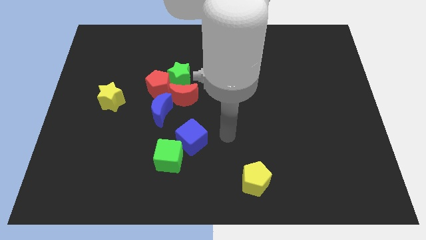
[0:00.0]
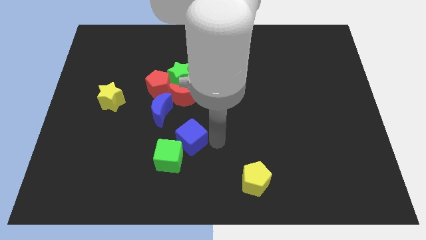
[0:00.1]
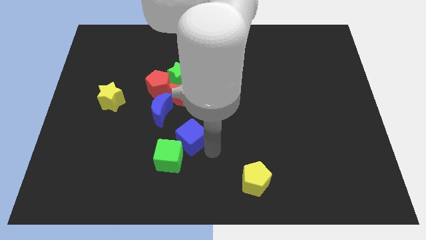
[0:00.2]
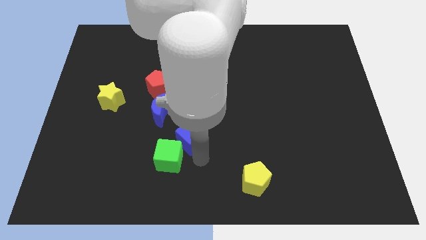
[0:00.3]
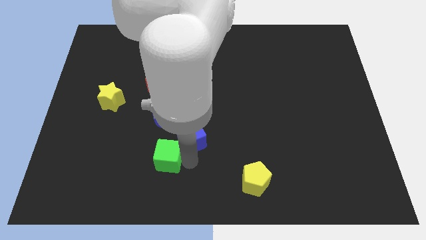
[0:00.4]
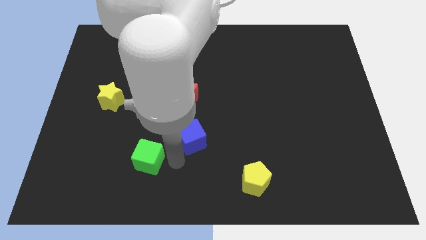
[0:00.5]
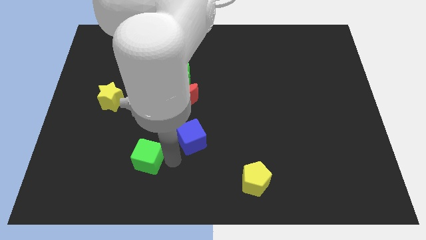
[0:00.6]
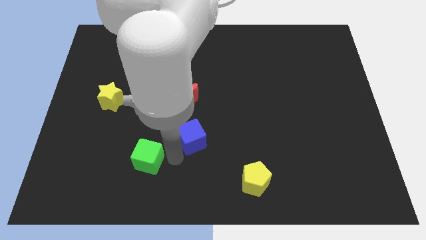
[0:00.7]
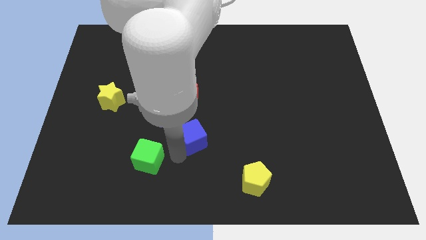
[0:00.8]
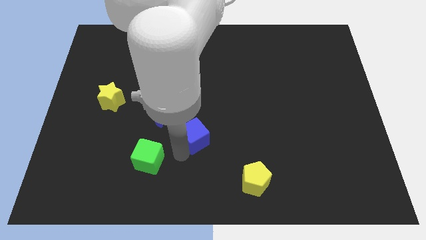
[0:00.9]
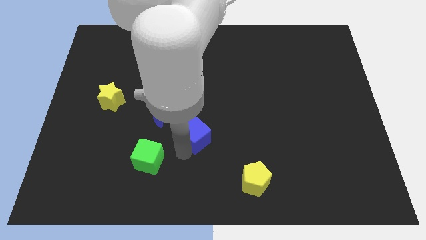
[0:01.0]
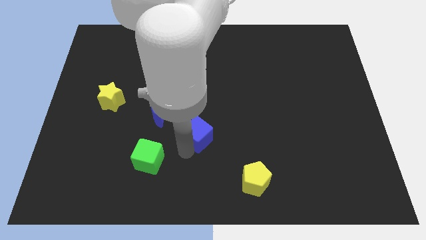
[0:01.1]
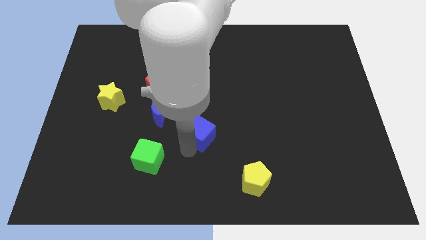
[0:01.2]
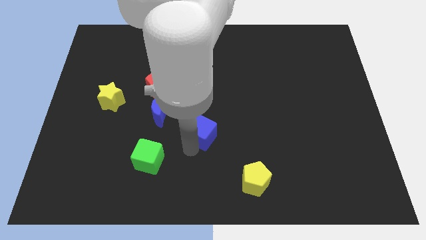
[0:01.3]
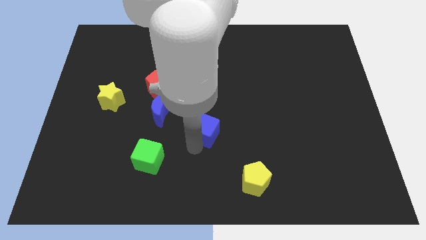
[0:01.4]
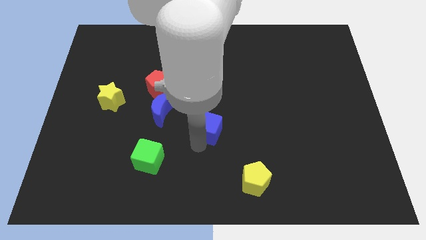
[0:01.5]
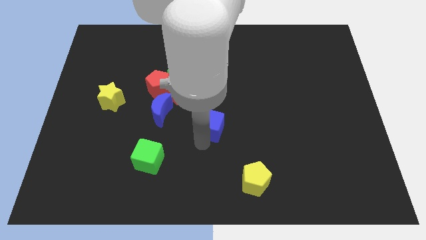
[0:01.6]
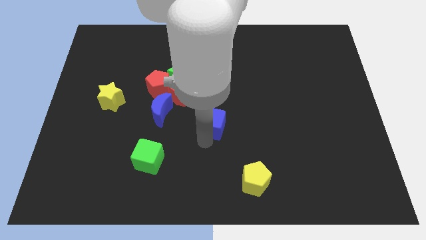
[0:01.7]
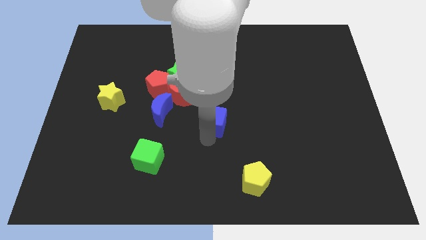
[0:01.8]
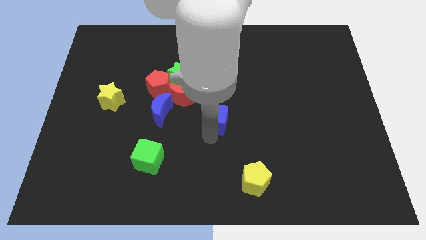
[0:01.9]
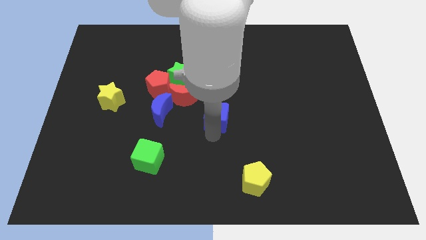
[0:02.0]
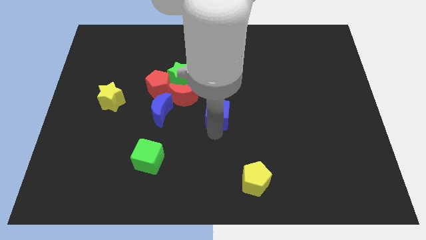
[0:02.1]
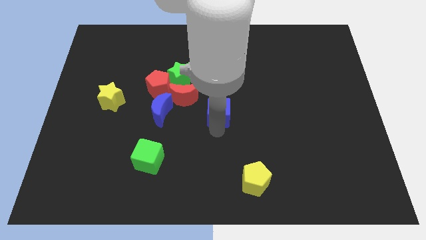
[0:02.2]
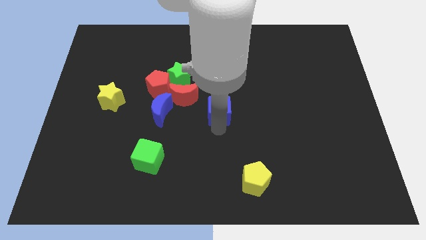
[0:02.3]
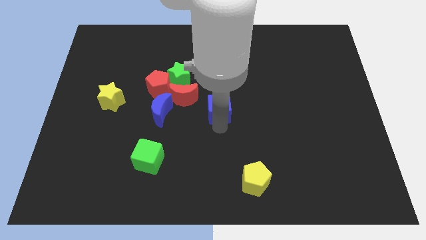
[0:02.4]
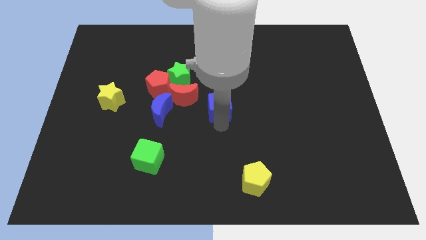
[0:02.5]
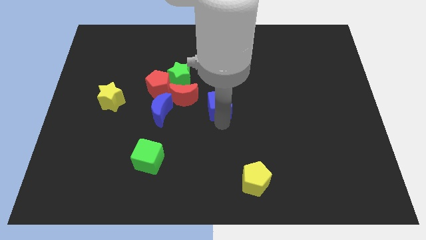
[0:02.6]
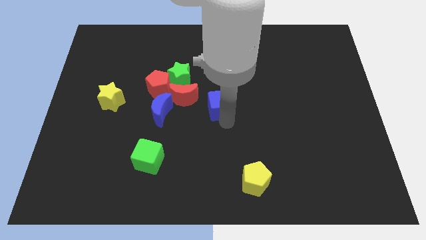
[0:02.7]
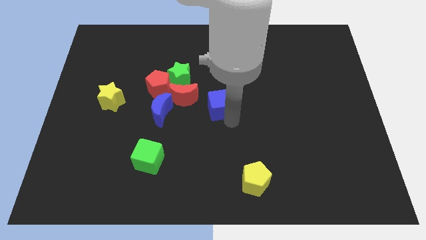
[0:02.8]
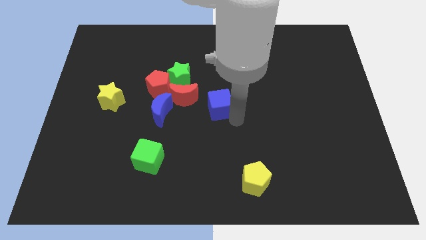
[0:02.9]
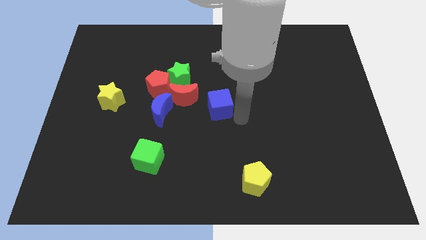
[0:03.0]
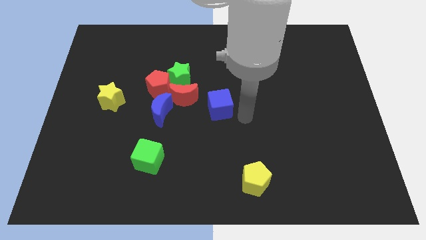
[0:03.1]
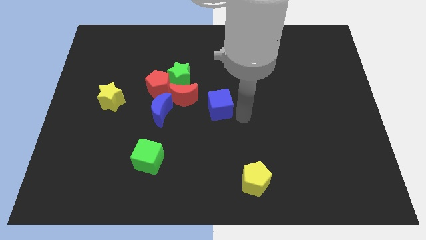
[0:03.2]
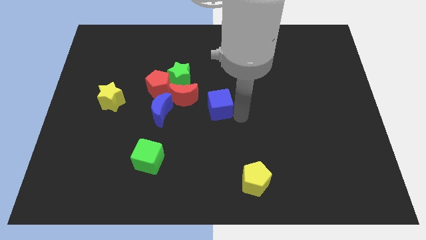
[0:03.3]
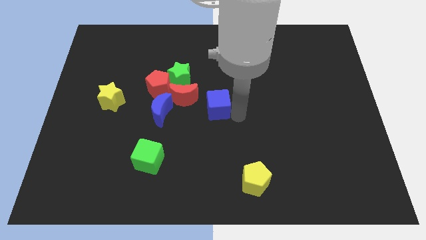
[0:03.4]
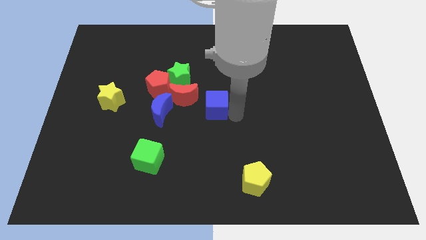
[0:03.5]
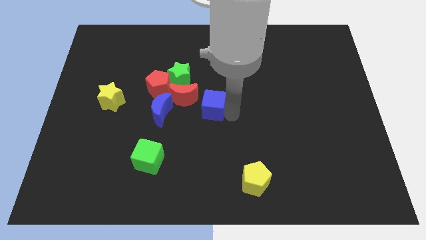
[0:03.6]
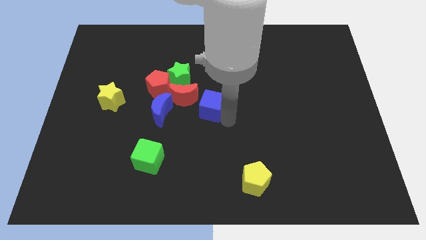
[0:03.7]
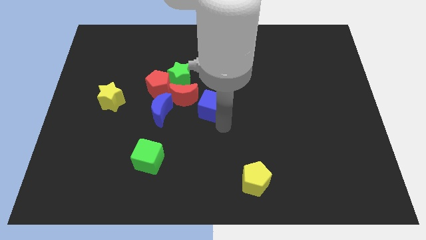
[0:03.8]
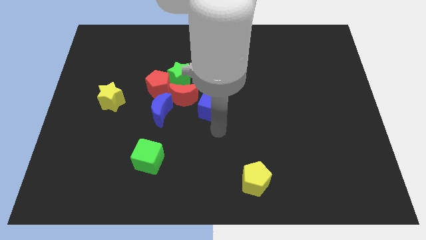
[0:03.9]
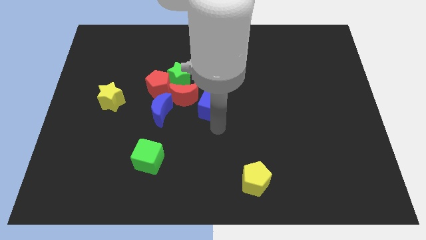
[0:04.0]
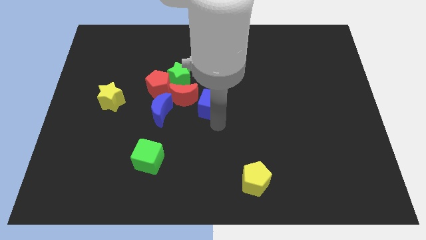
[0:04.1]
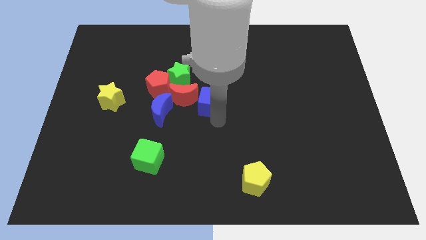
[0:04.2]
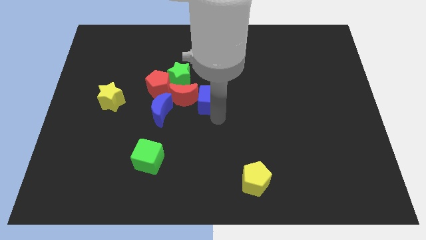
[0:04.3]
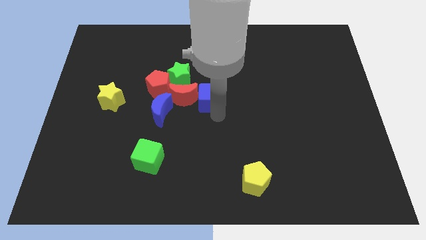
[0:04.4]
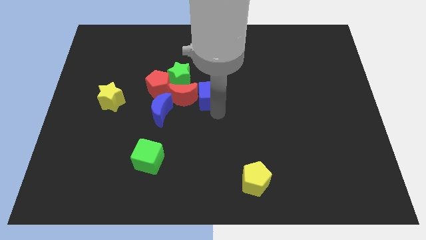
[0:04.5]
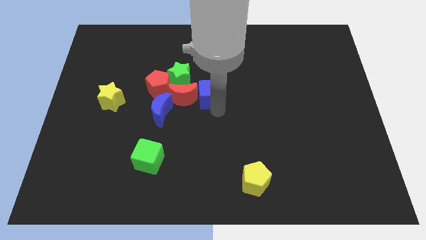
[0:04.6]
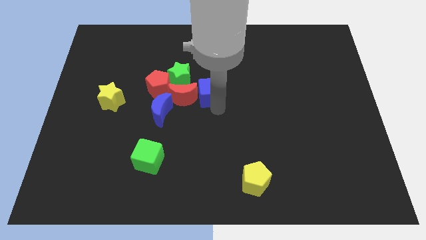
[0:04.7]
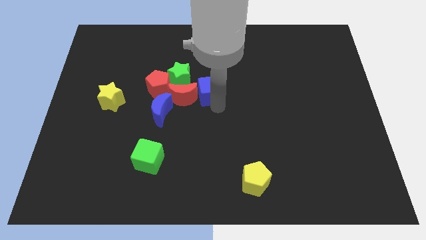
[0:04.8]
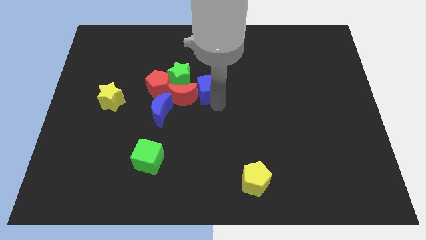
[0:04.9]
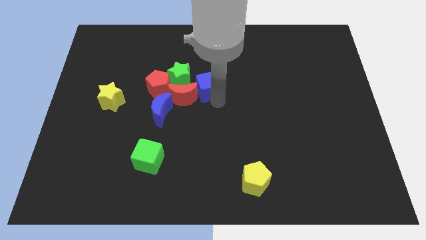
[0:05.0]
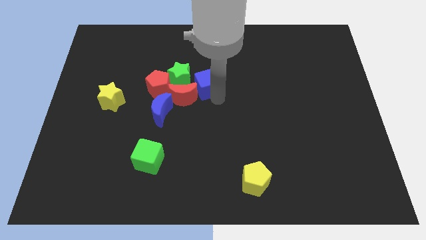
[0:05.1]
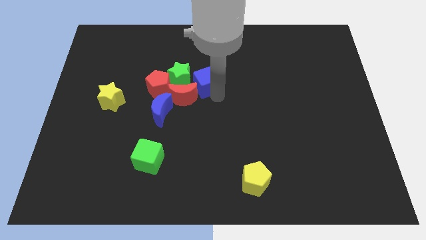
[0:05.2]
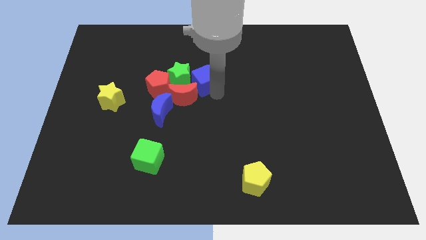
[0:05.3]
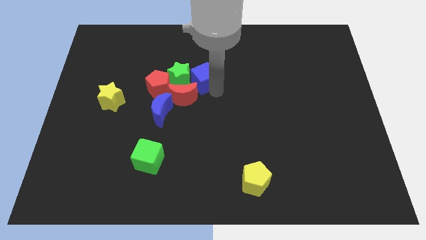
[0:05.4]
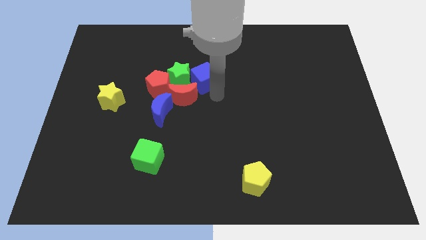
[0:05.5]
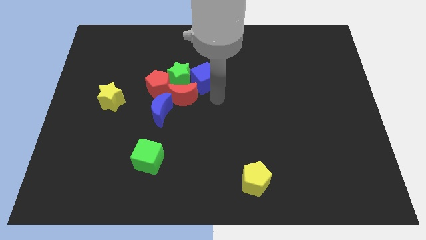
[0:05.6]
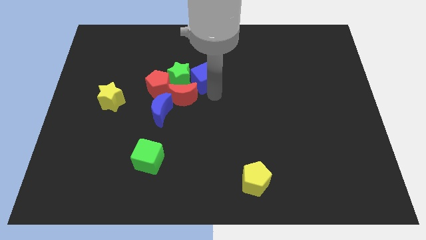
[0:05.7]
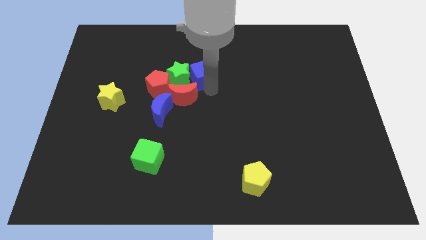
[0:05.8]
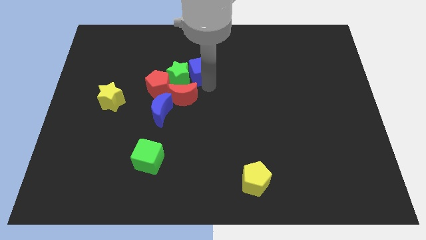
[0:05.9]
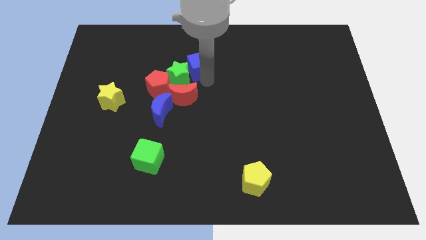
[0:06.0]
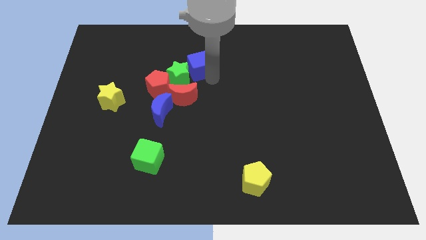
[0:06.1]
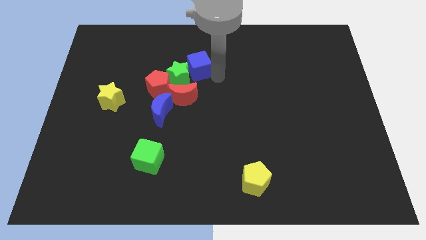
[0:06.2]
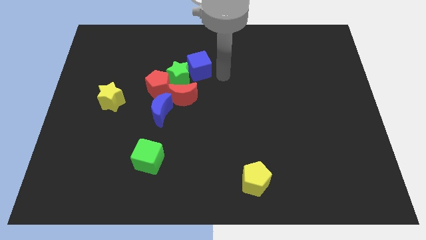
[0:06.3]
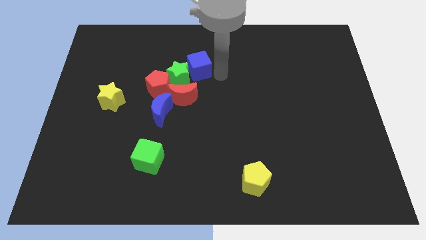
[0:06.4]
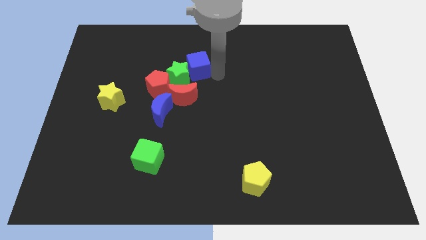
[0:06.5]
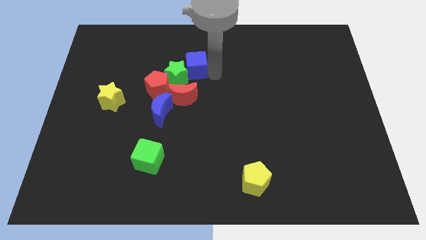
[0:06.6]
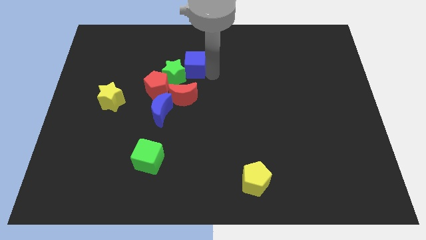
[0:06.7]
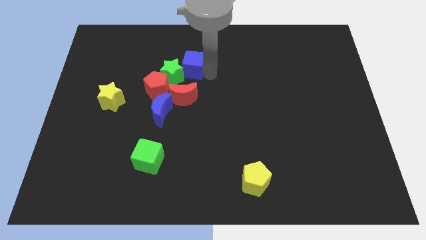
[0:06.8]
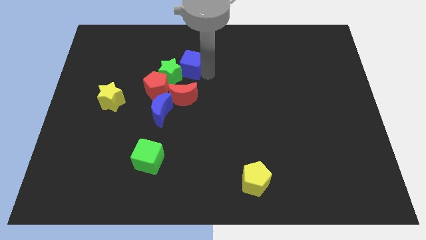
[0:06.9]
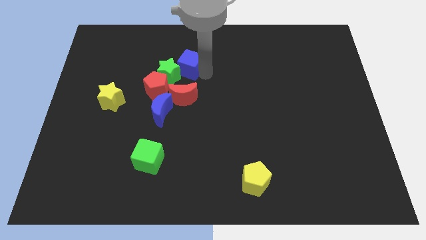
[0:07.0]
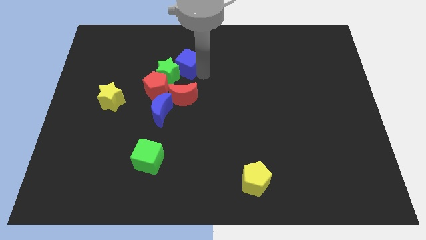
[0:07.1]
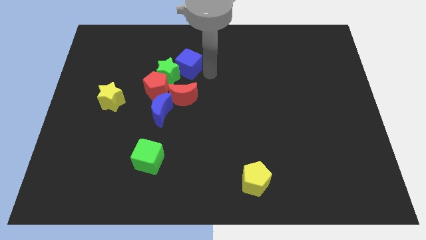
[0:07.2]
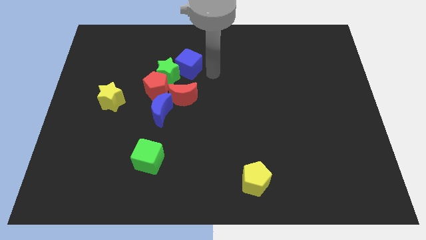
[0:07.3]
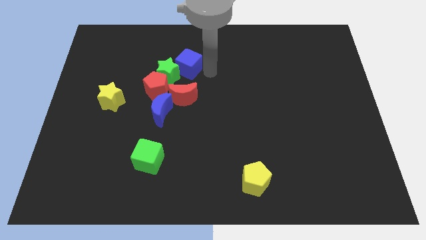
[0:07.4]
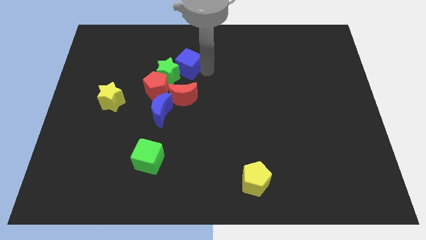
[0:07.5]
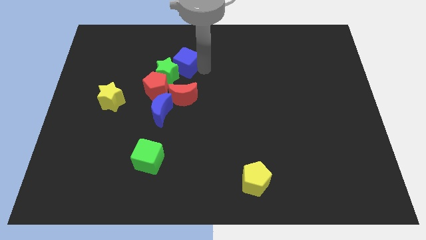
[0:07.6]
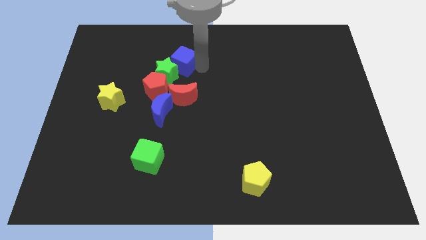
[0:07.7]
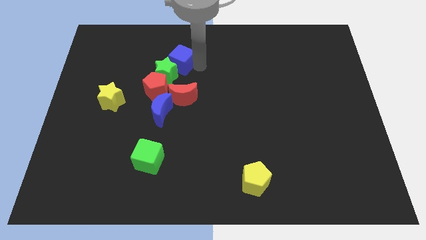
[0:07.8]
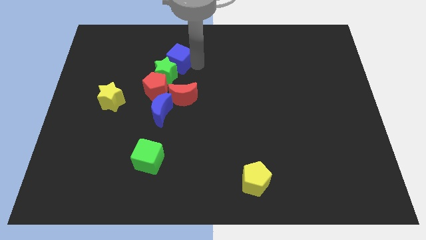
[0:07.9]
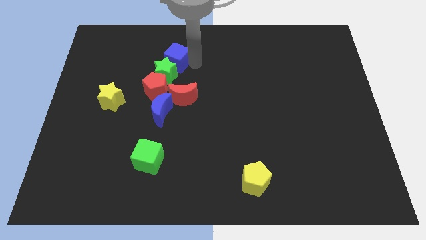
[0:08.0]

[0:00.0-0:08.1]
move the blue cube above the red pentagon
